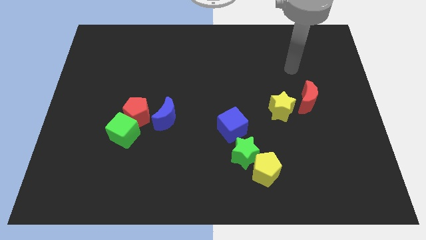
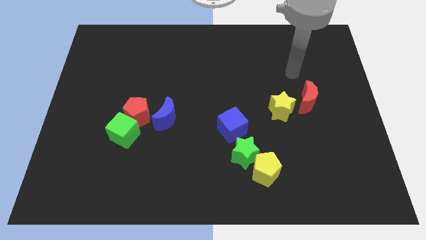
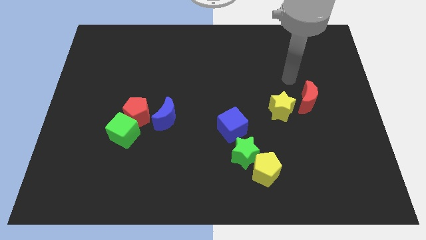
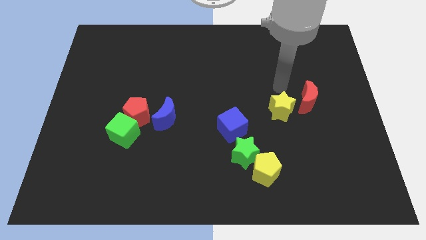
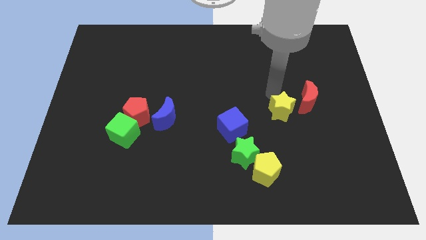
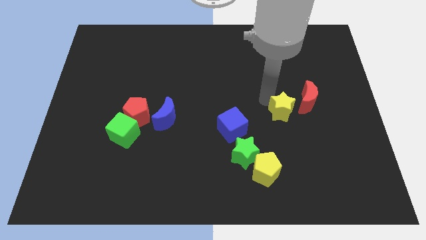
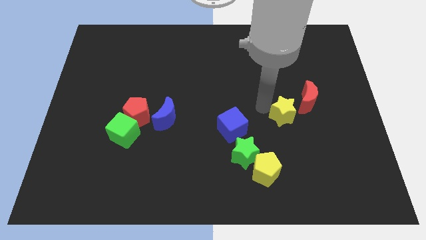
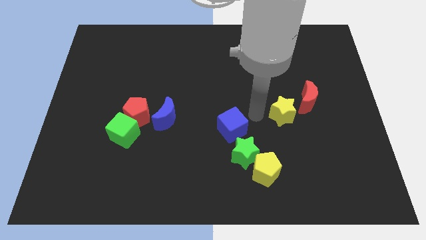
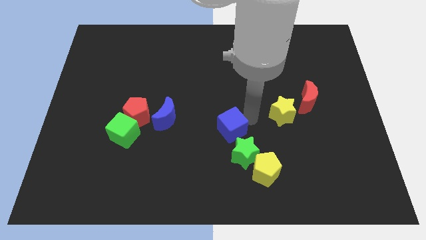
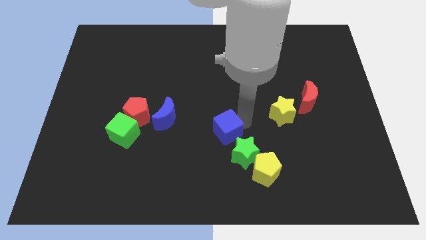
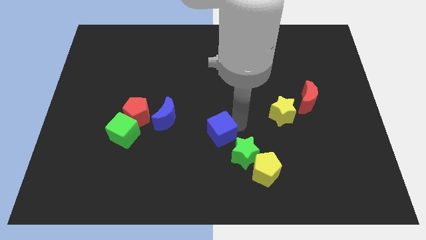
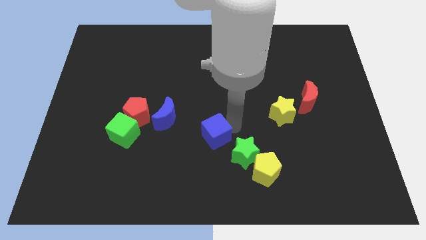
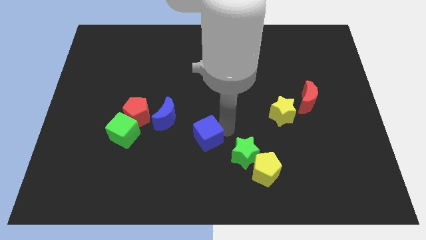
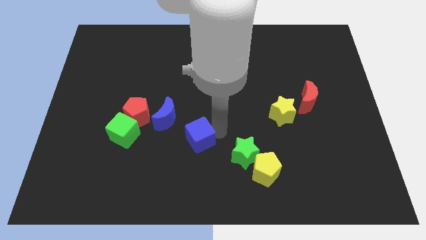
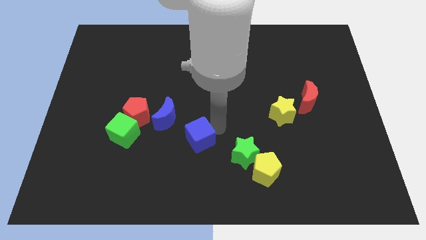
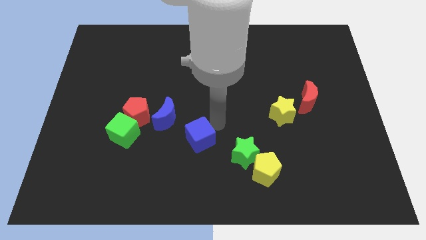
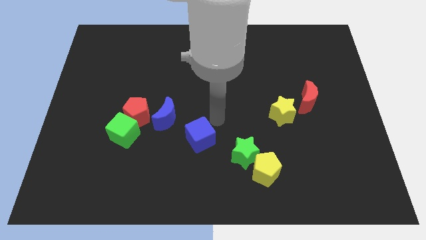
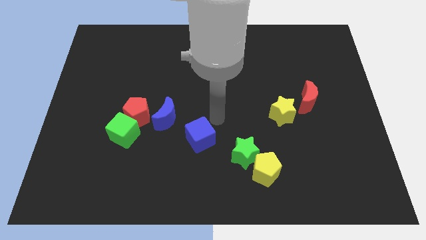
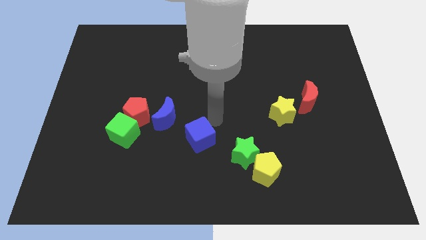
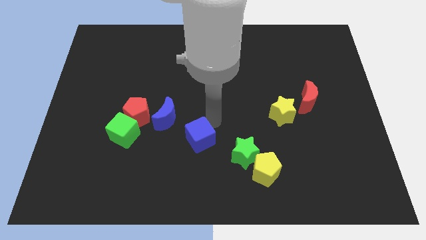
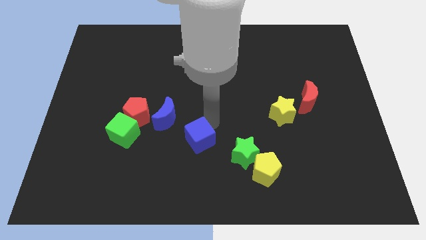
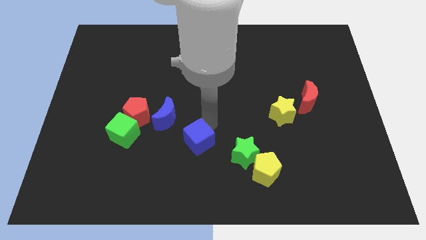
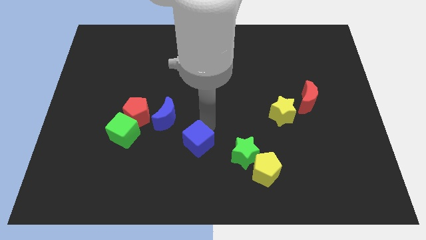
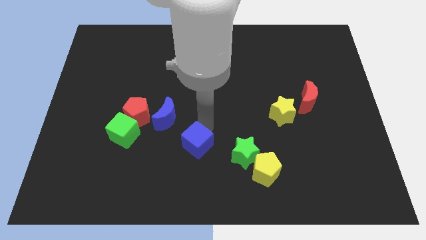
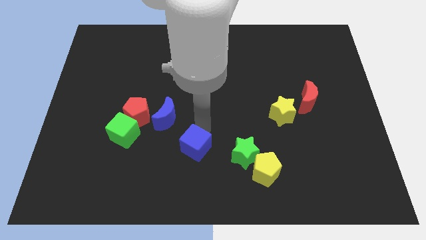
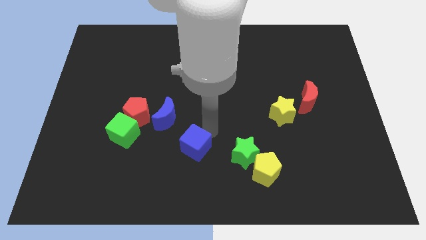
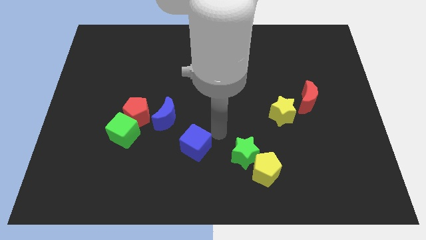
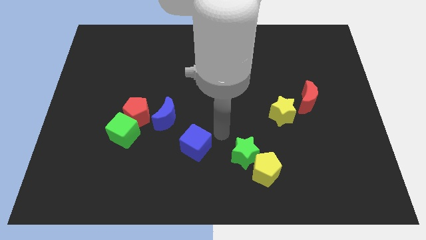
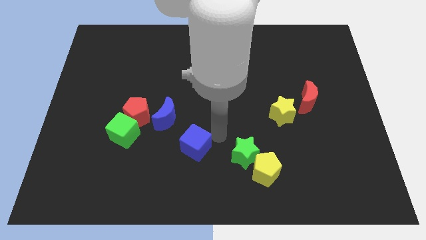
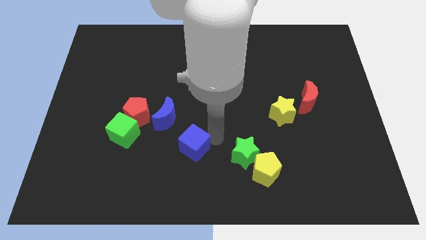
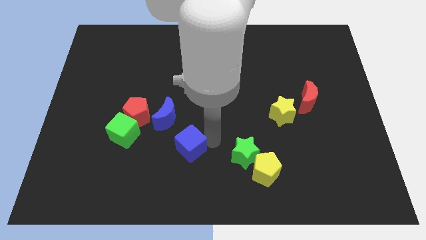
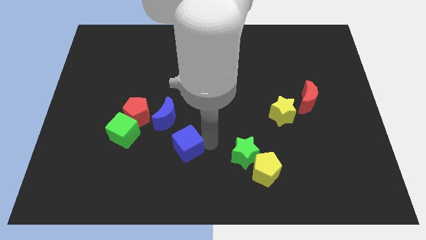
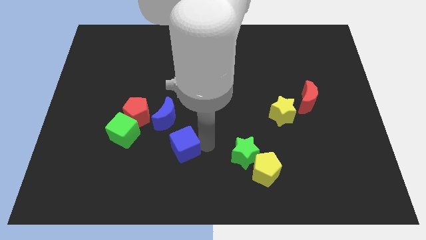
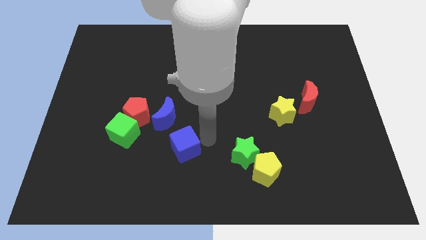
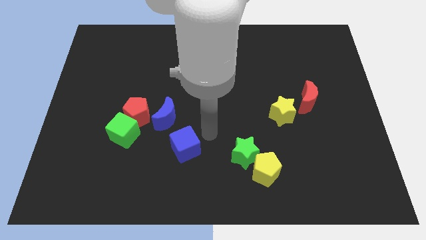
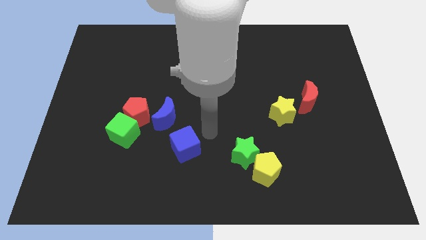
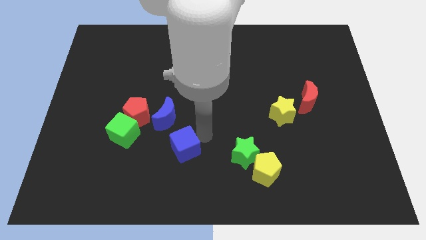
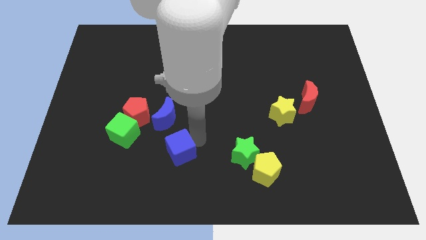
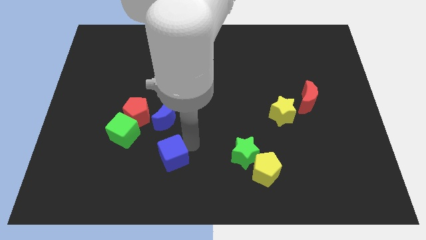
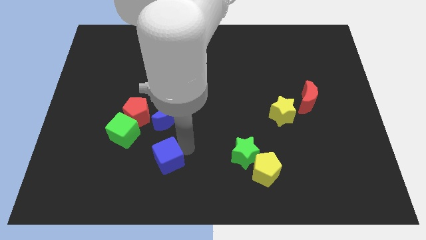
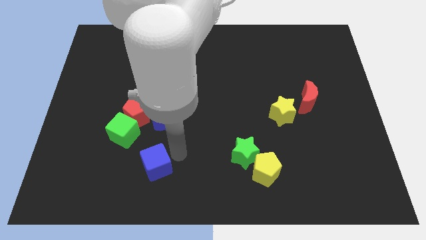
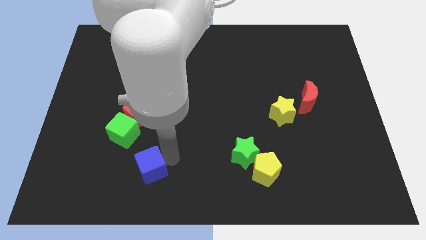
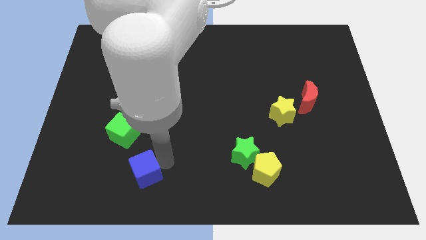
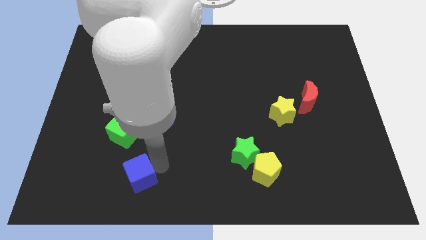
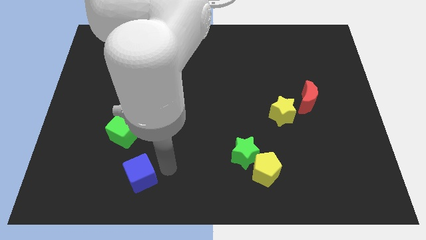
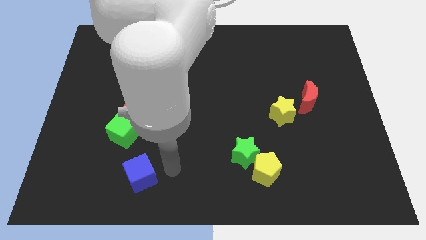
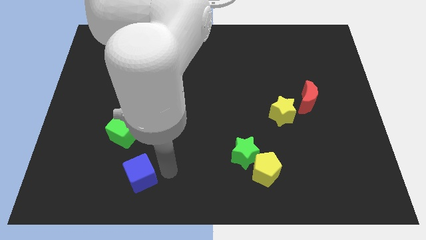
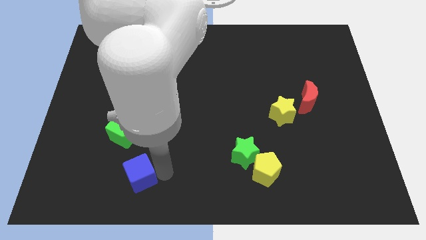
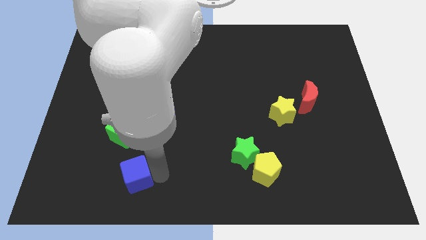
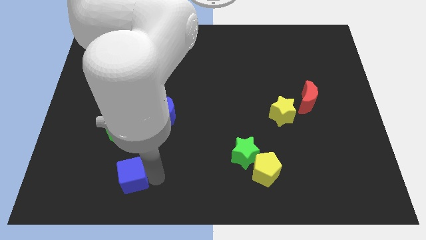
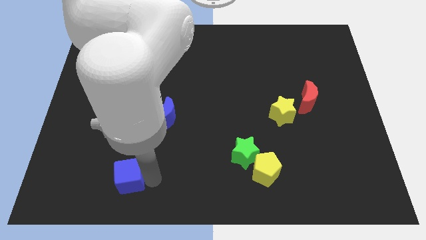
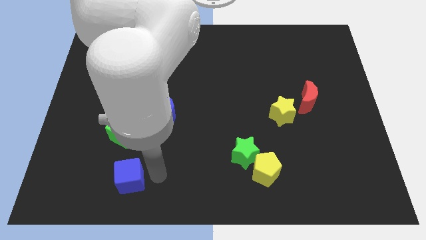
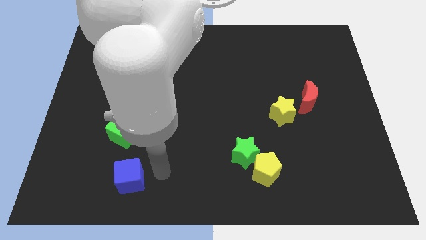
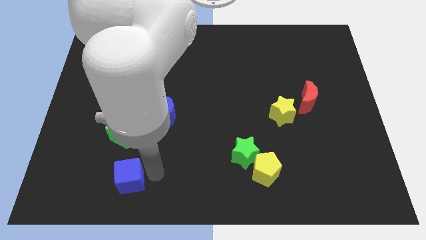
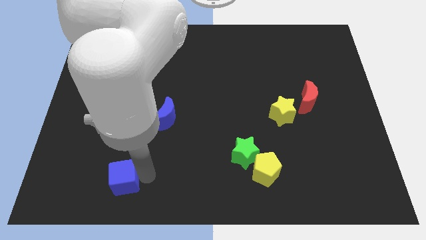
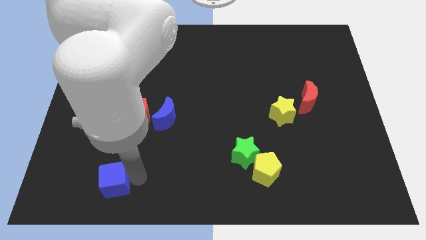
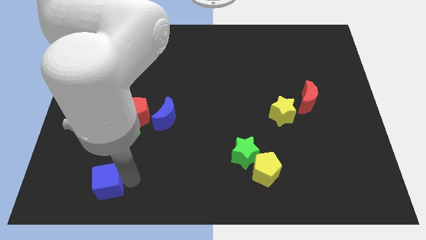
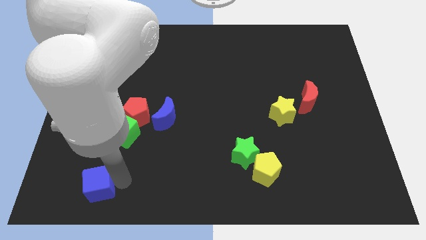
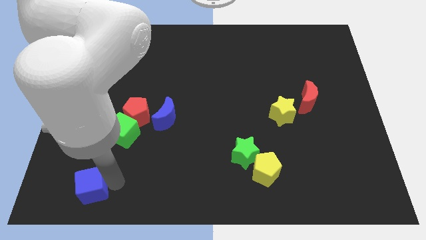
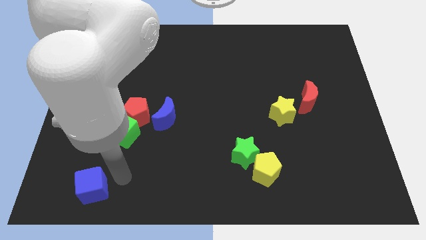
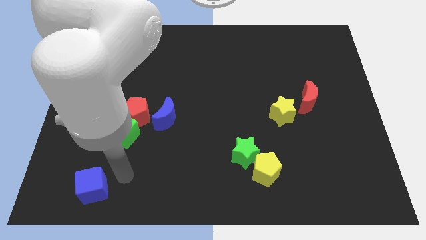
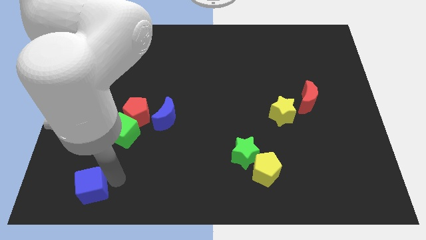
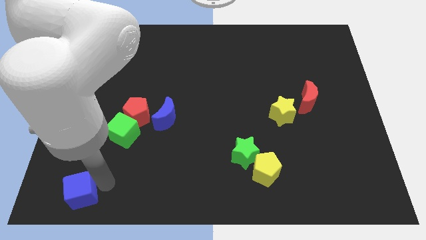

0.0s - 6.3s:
push the blue cube to the lower left corner

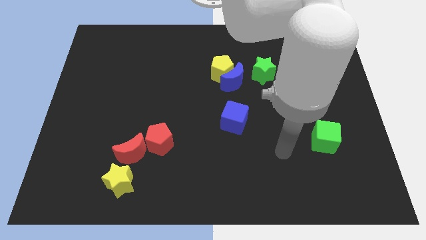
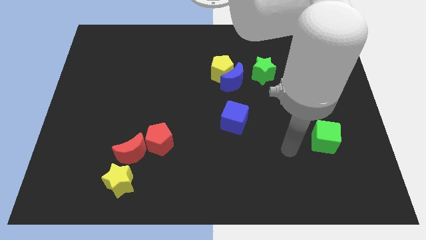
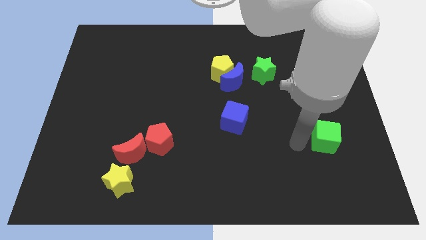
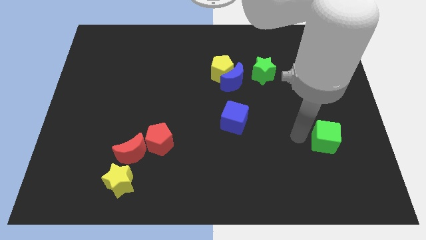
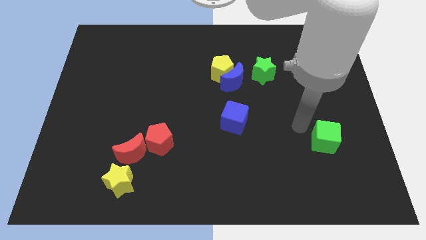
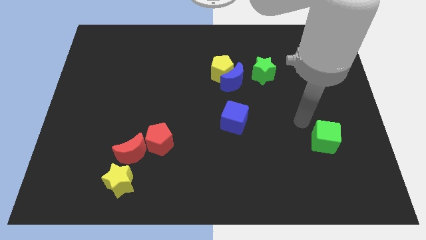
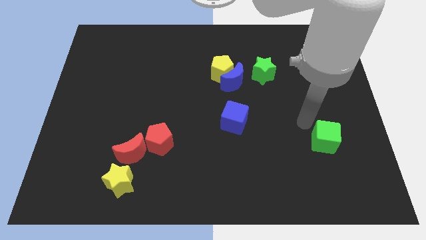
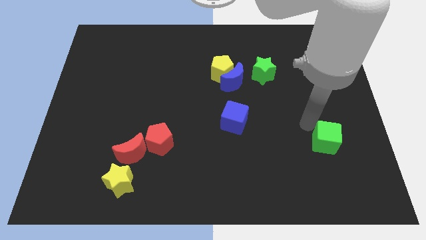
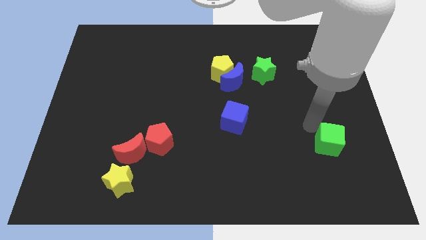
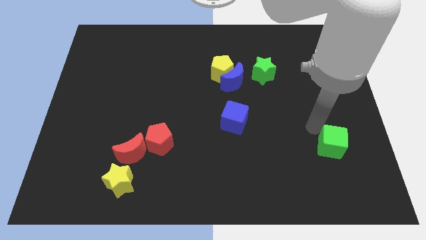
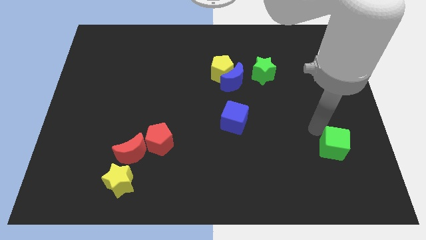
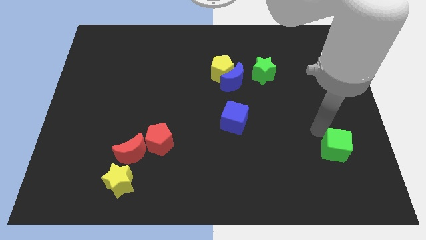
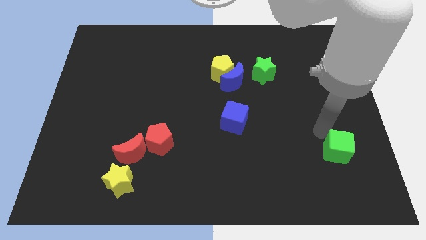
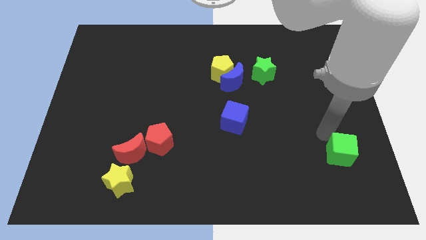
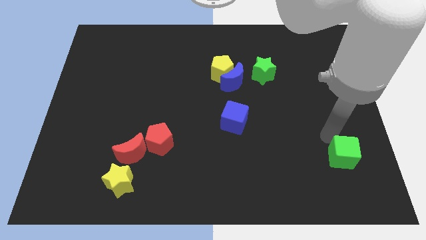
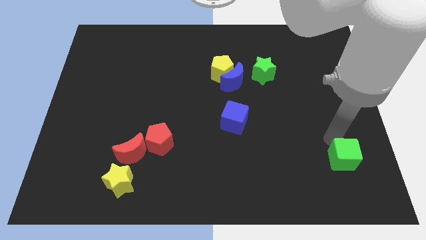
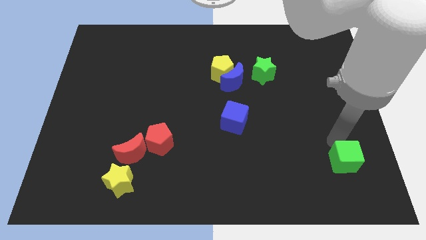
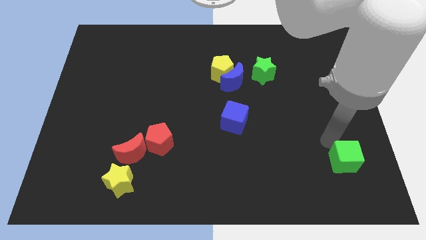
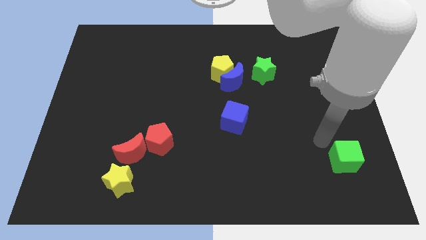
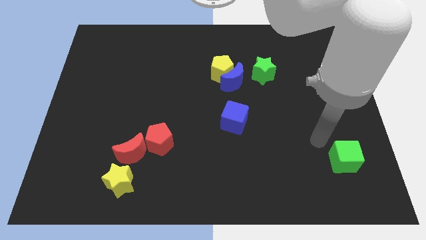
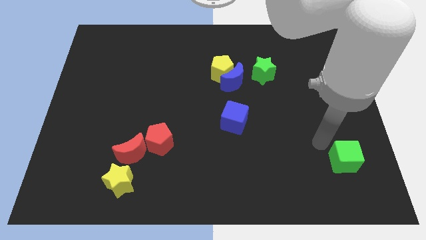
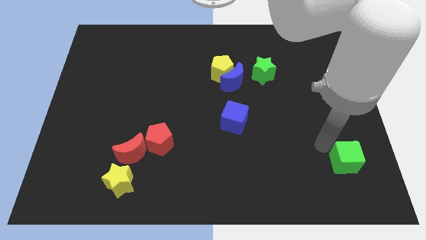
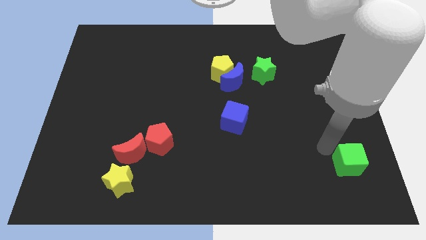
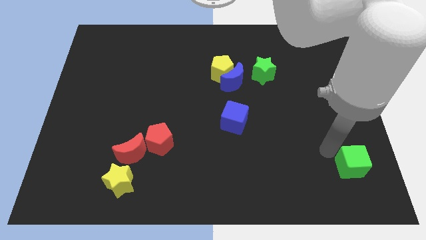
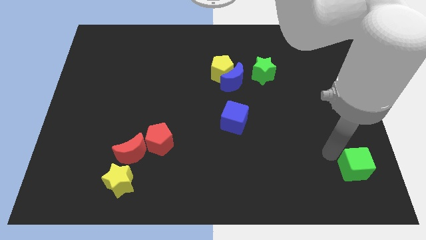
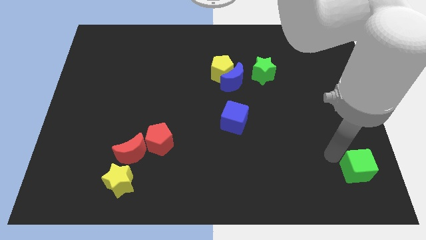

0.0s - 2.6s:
put the green cube to the bottom right
